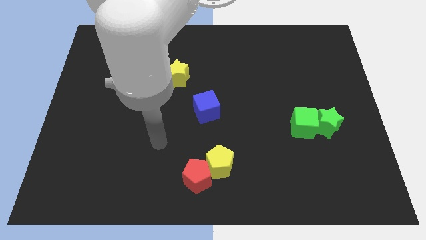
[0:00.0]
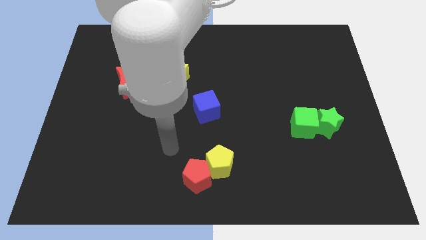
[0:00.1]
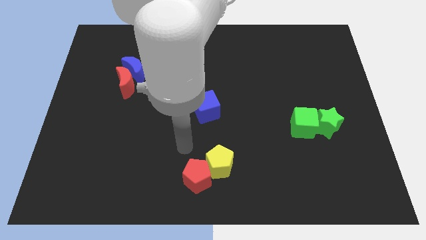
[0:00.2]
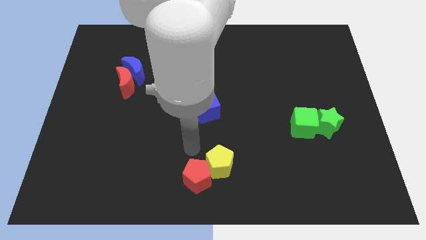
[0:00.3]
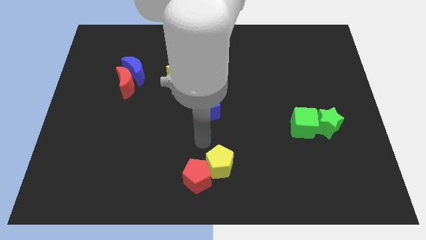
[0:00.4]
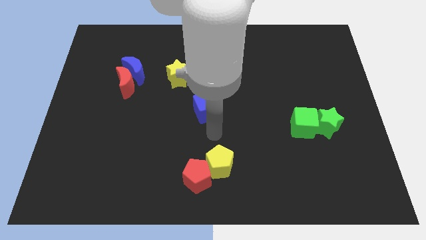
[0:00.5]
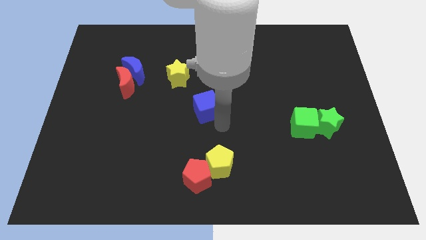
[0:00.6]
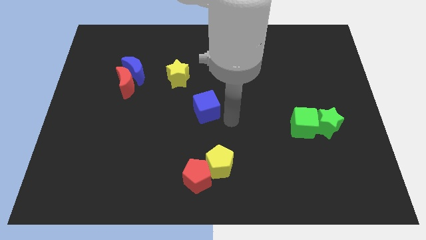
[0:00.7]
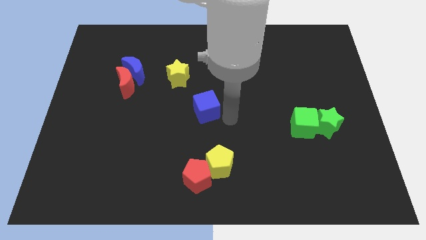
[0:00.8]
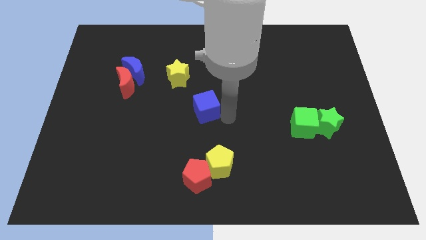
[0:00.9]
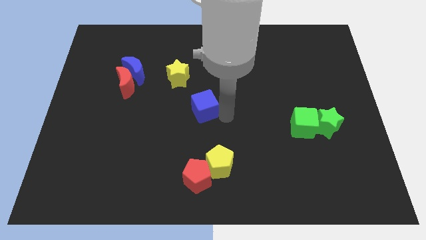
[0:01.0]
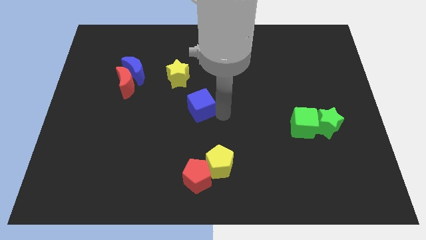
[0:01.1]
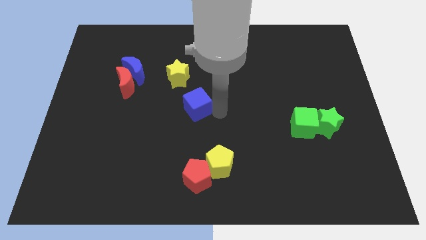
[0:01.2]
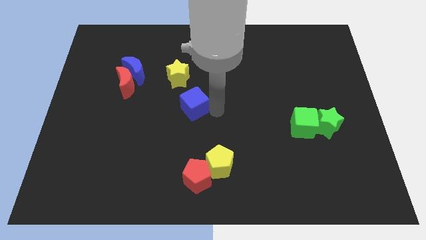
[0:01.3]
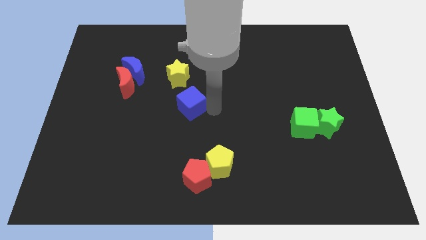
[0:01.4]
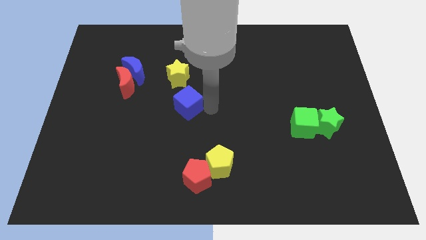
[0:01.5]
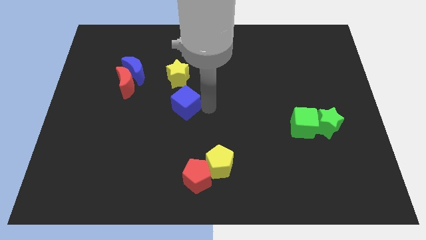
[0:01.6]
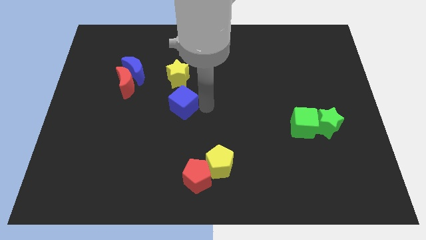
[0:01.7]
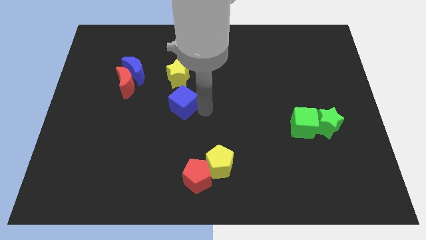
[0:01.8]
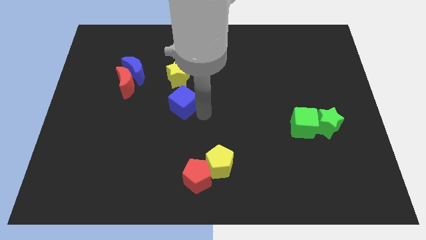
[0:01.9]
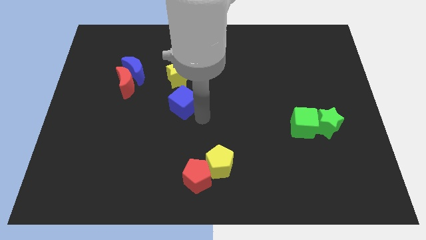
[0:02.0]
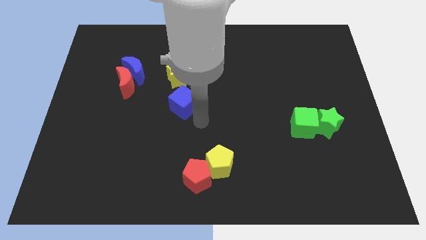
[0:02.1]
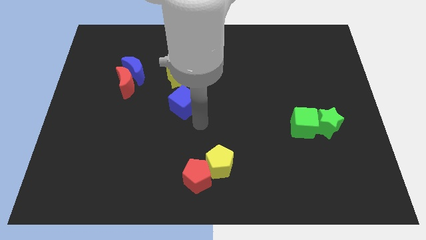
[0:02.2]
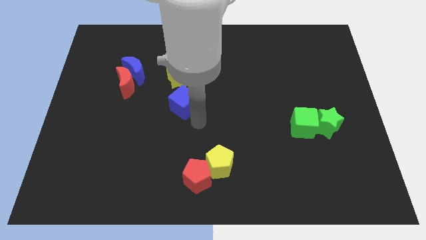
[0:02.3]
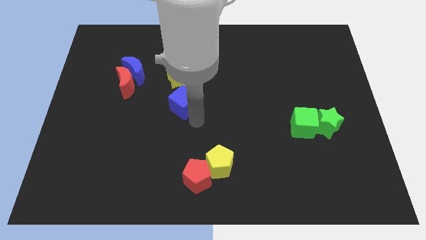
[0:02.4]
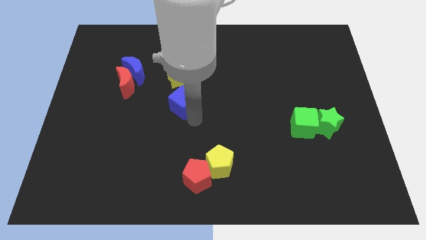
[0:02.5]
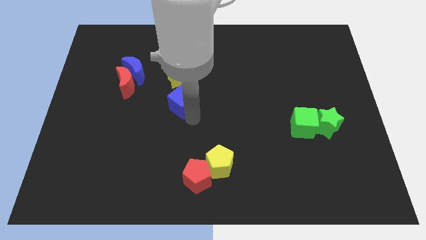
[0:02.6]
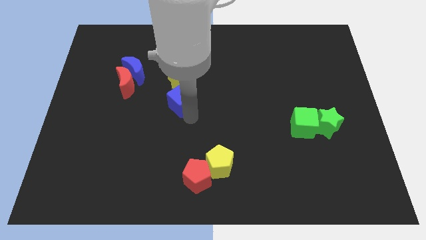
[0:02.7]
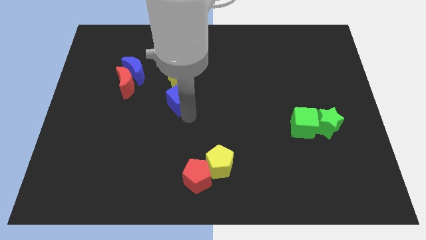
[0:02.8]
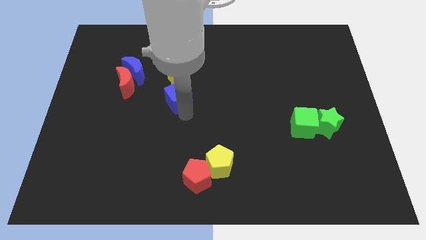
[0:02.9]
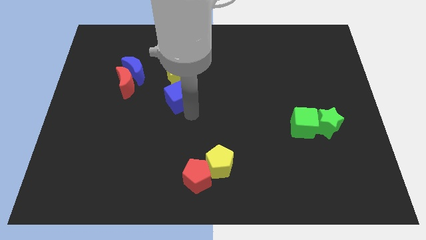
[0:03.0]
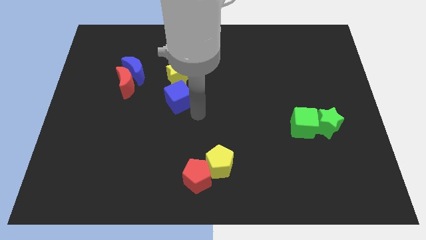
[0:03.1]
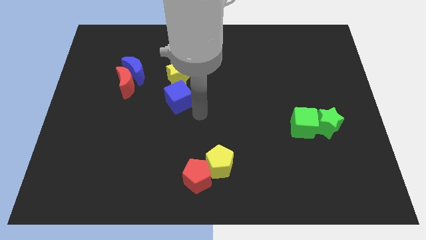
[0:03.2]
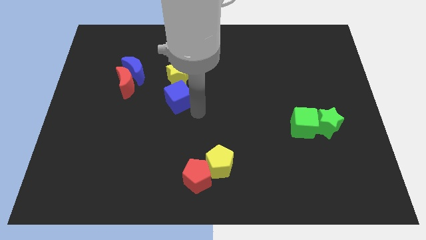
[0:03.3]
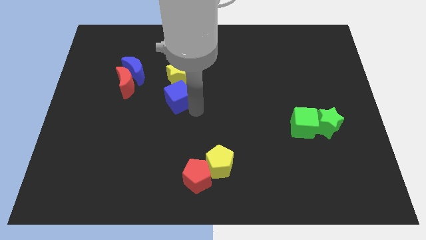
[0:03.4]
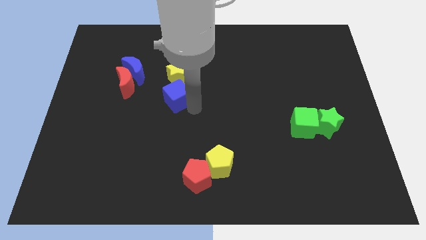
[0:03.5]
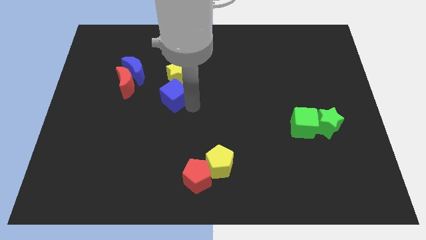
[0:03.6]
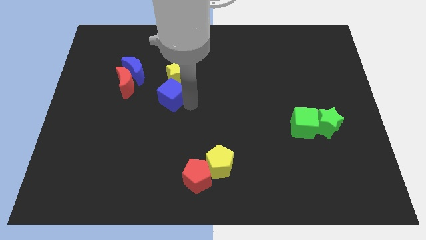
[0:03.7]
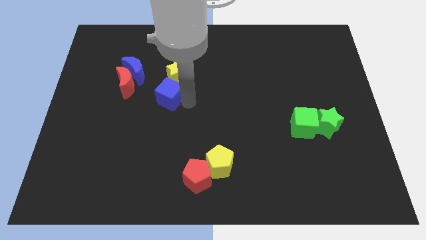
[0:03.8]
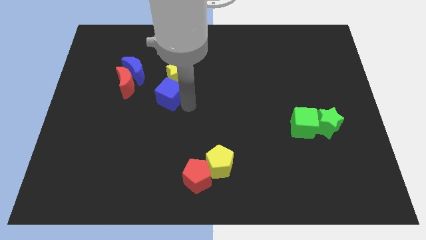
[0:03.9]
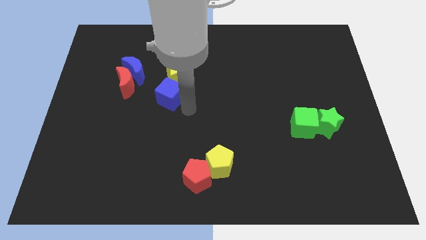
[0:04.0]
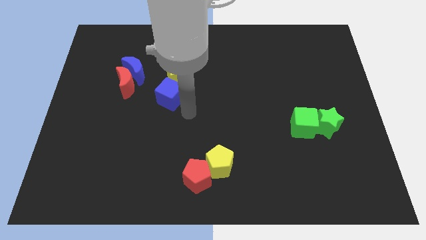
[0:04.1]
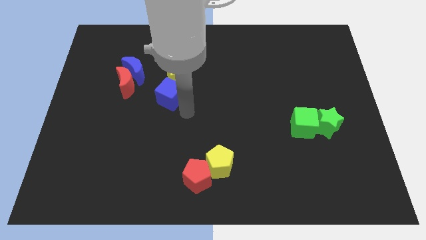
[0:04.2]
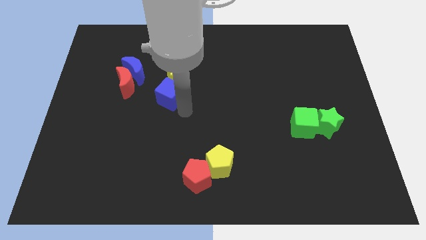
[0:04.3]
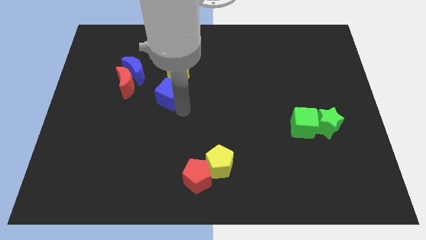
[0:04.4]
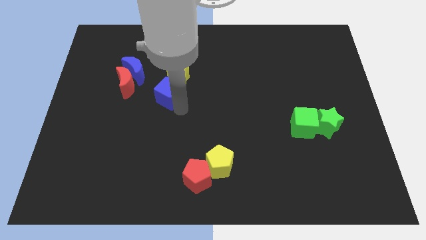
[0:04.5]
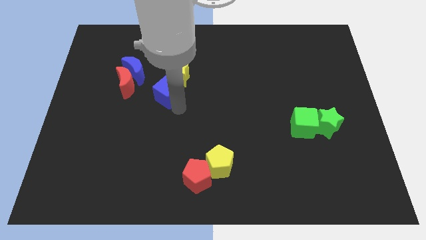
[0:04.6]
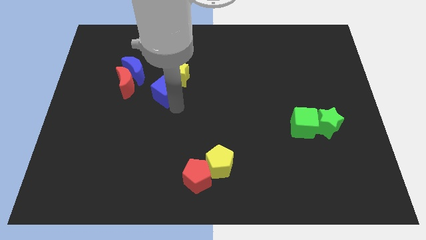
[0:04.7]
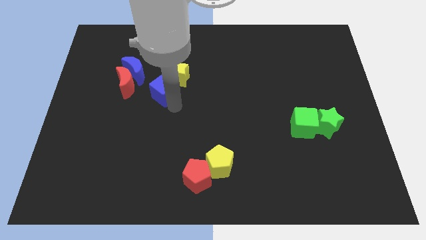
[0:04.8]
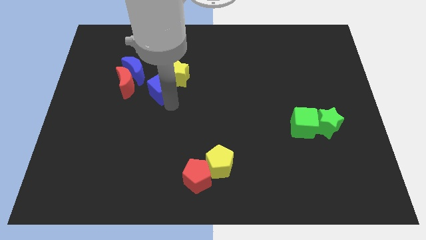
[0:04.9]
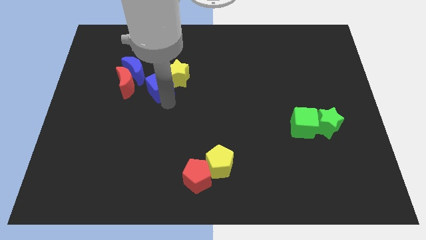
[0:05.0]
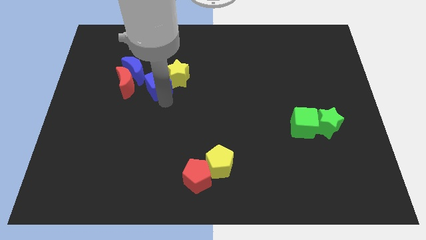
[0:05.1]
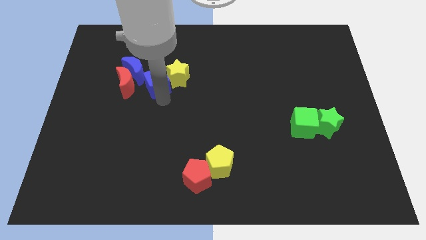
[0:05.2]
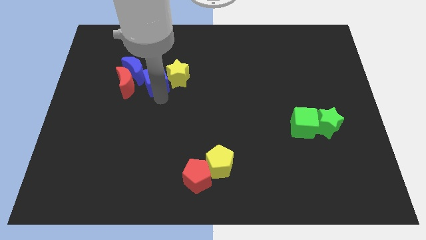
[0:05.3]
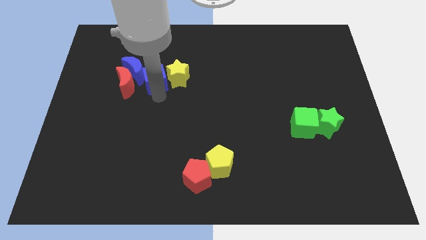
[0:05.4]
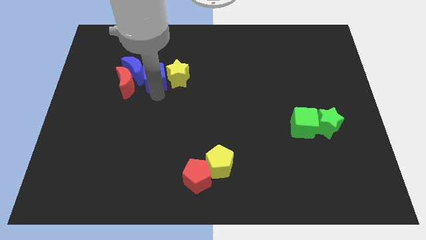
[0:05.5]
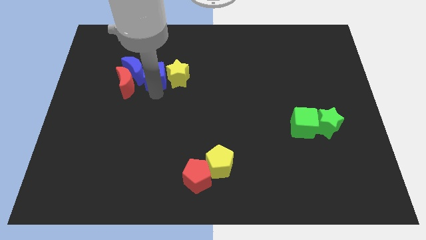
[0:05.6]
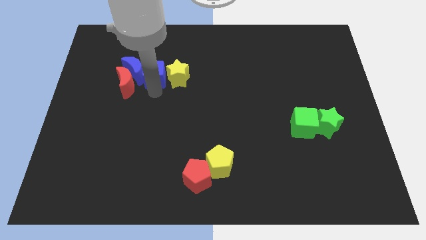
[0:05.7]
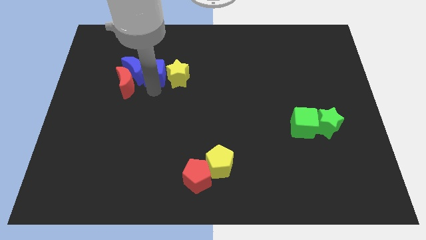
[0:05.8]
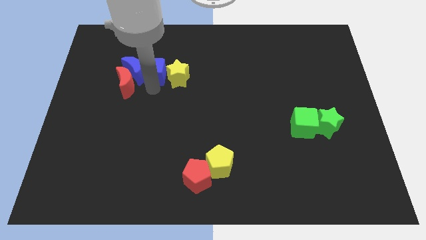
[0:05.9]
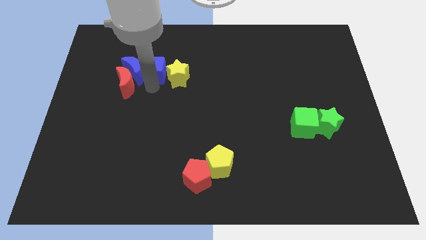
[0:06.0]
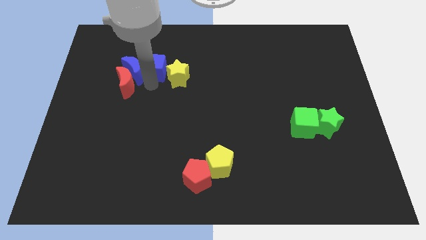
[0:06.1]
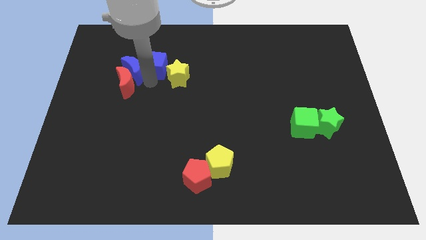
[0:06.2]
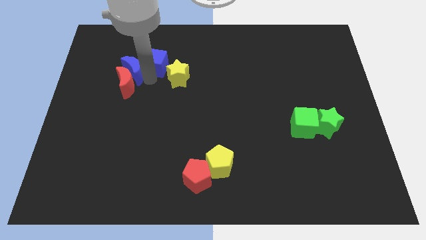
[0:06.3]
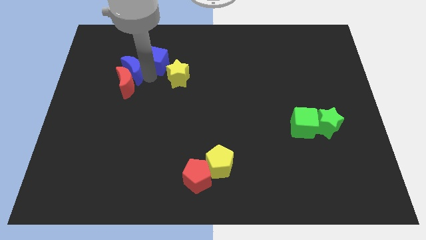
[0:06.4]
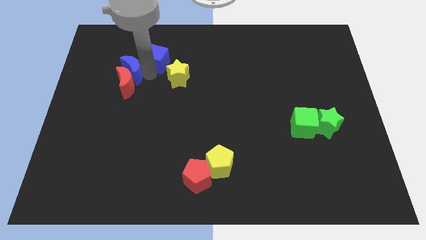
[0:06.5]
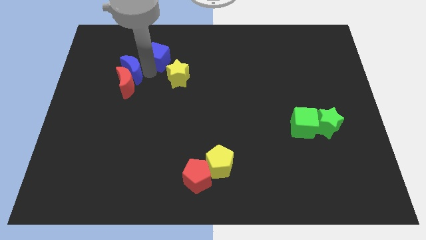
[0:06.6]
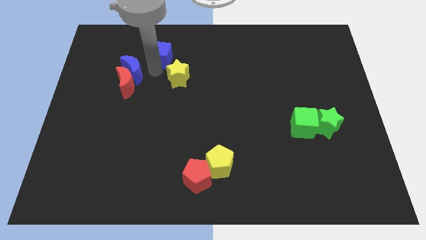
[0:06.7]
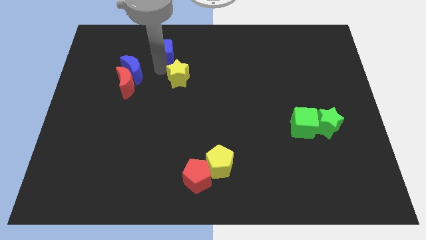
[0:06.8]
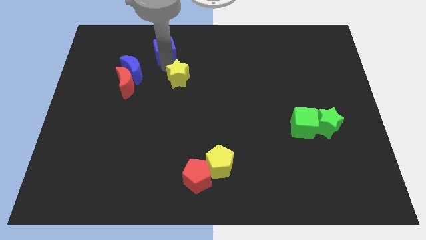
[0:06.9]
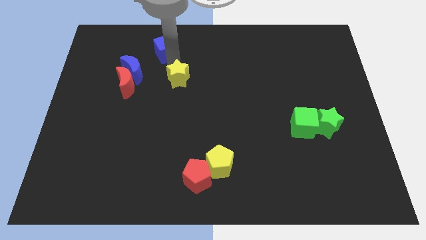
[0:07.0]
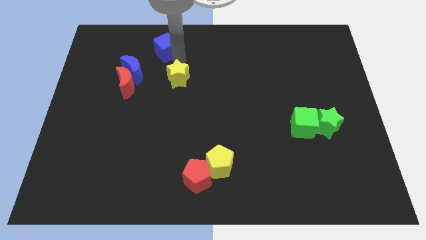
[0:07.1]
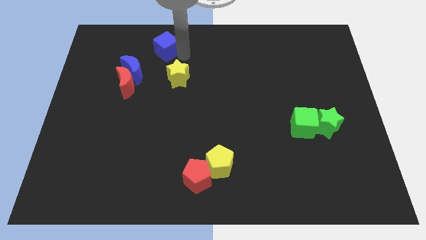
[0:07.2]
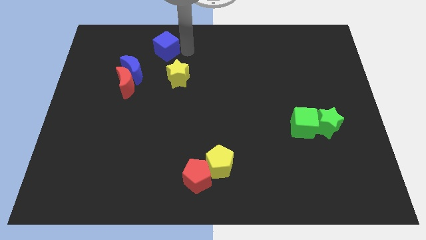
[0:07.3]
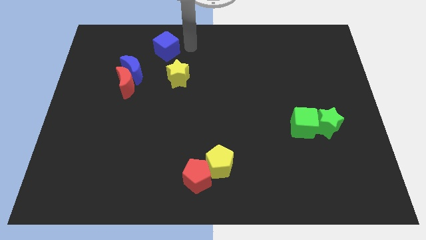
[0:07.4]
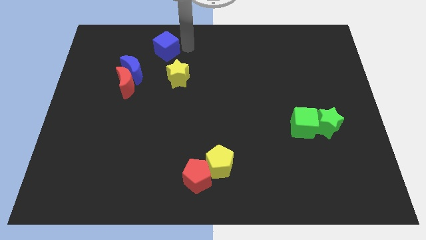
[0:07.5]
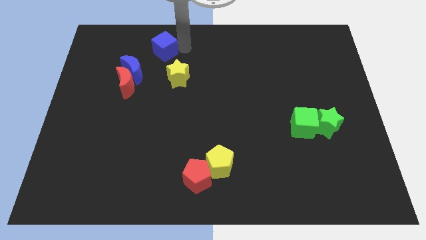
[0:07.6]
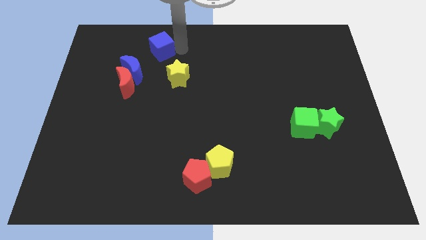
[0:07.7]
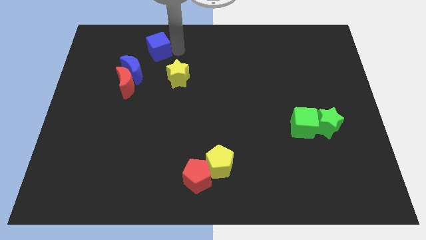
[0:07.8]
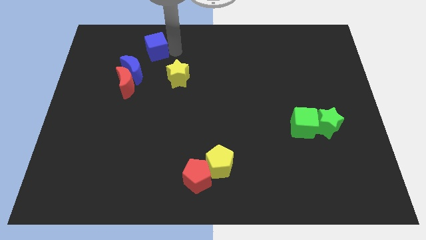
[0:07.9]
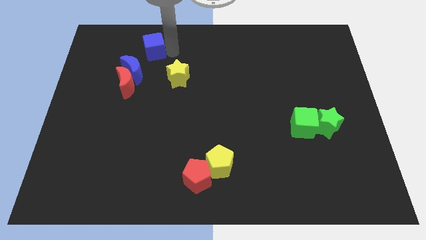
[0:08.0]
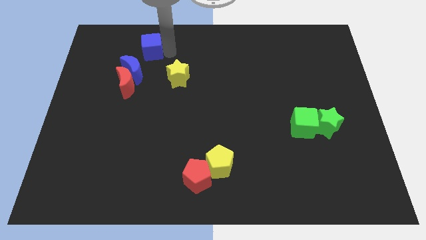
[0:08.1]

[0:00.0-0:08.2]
slide the blue cube to the top side of the red moon
